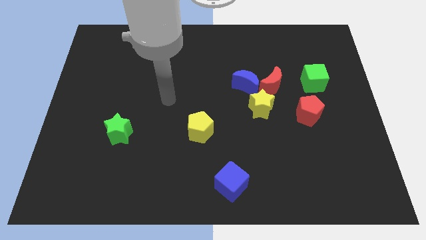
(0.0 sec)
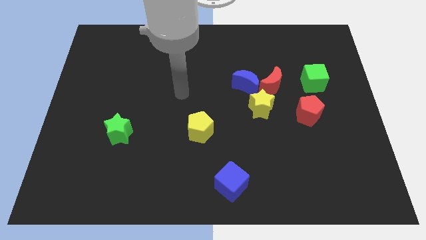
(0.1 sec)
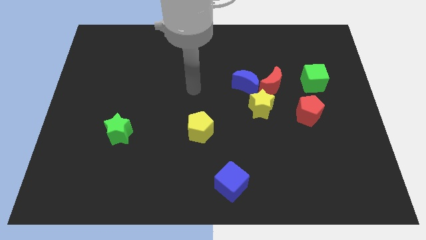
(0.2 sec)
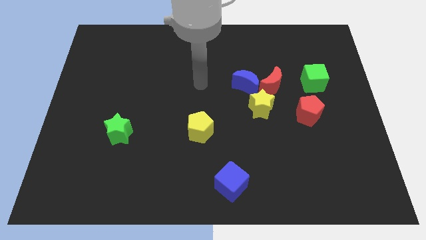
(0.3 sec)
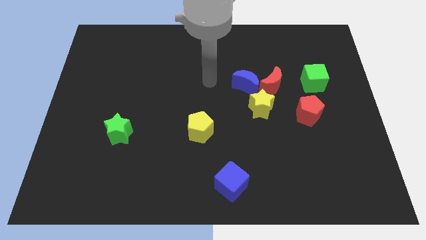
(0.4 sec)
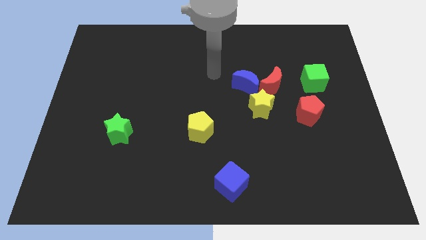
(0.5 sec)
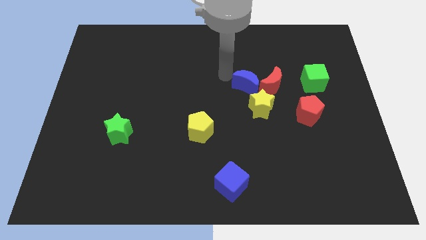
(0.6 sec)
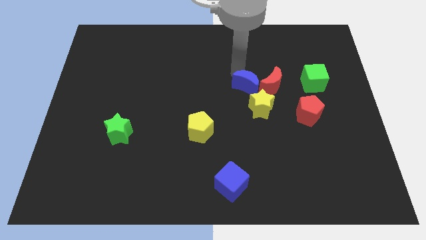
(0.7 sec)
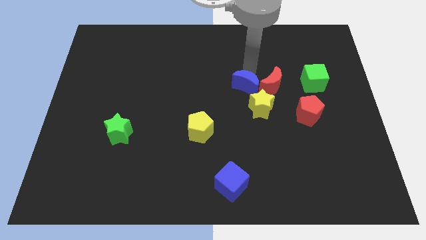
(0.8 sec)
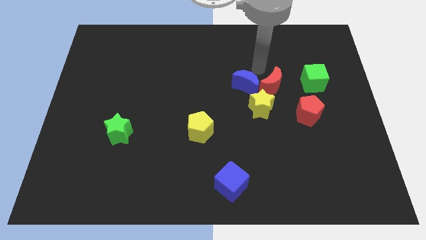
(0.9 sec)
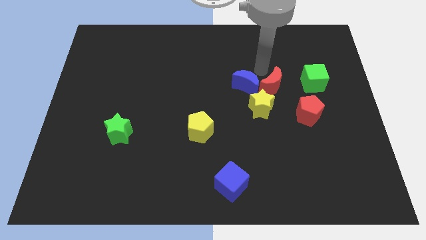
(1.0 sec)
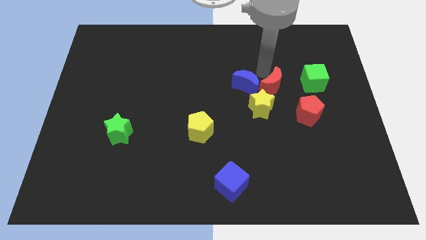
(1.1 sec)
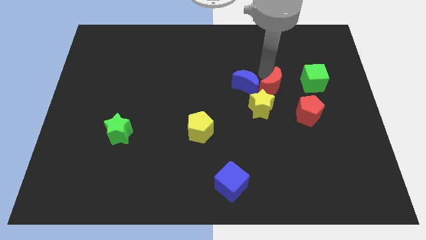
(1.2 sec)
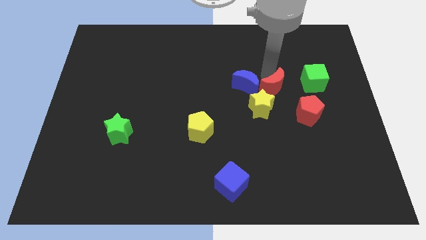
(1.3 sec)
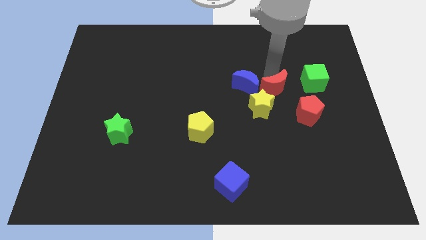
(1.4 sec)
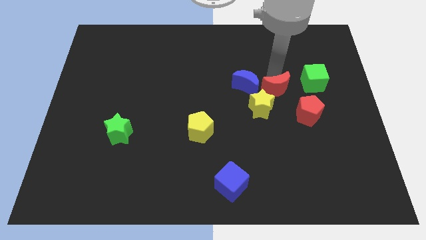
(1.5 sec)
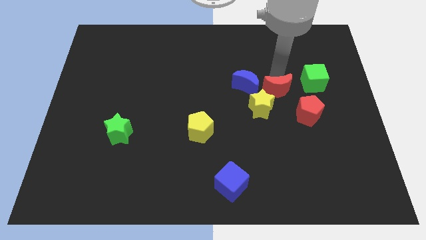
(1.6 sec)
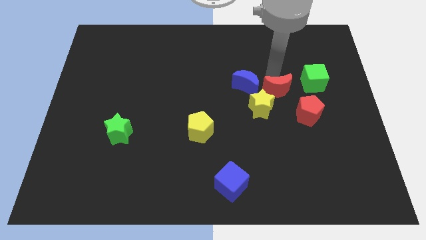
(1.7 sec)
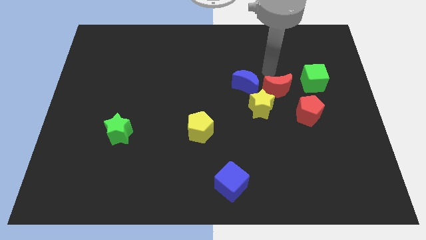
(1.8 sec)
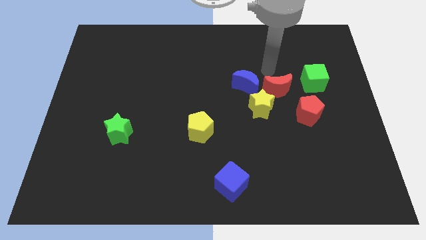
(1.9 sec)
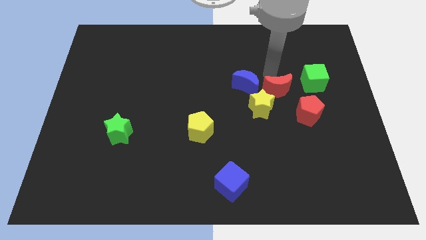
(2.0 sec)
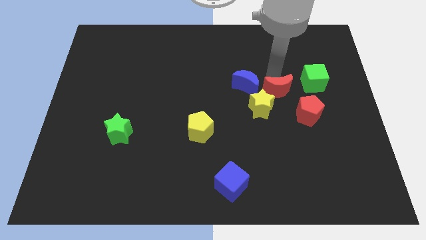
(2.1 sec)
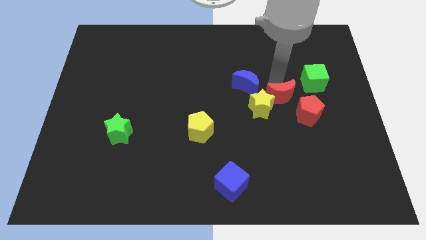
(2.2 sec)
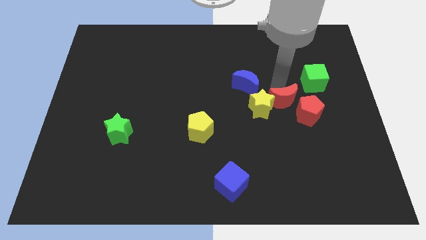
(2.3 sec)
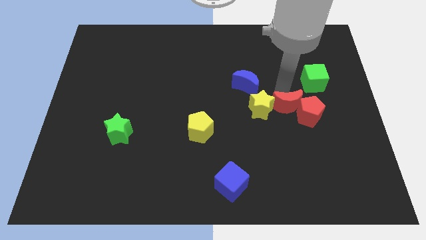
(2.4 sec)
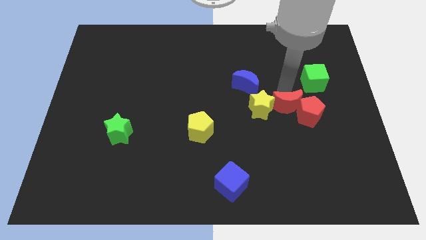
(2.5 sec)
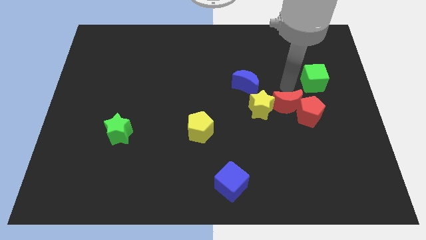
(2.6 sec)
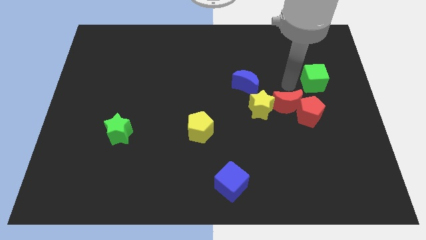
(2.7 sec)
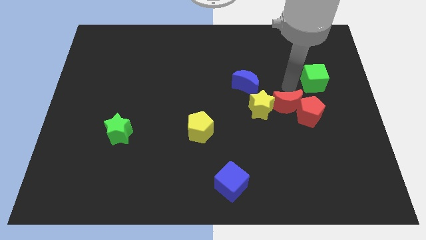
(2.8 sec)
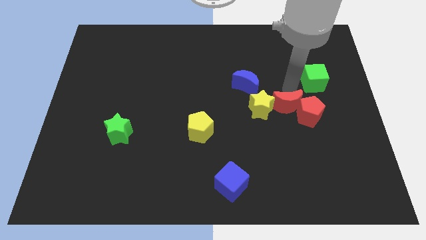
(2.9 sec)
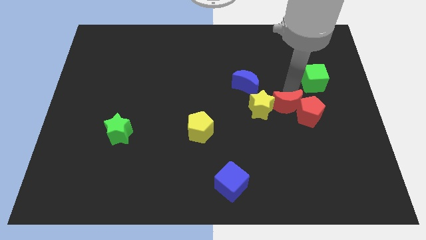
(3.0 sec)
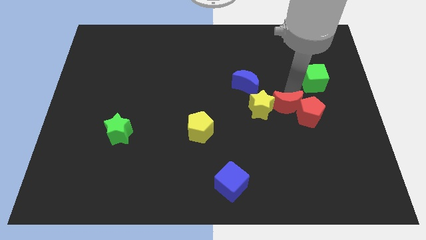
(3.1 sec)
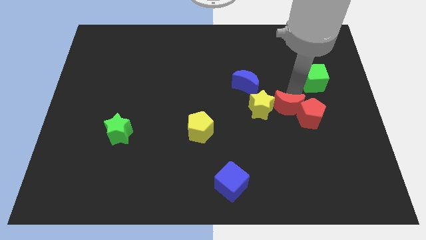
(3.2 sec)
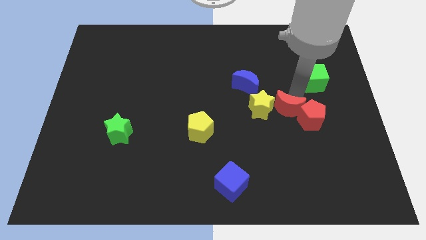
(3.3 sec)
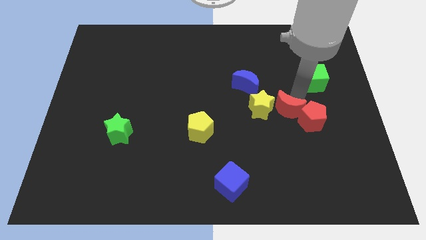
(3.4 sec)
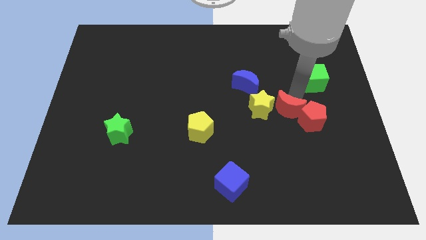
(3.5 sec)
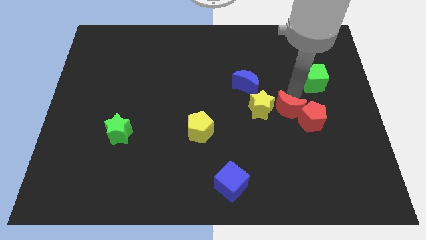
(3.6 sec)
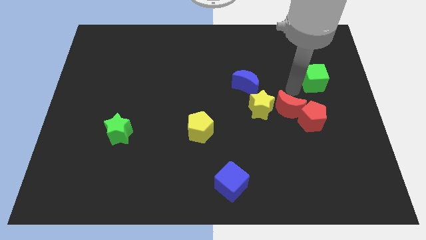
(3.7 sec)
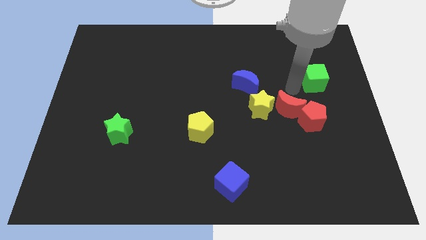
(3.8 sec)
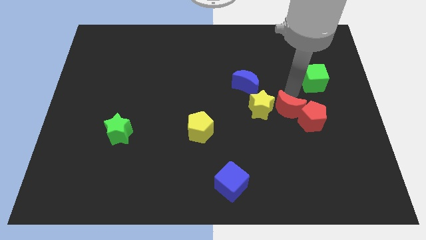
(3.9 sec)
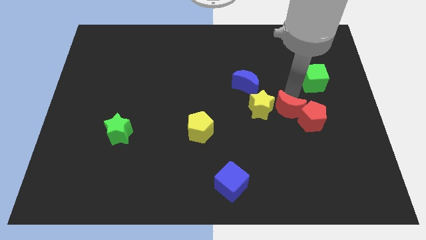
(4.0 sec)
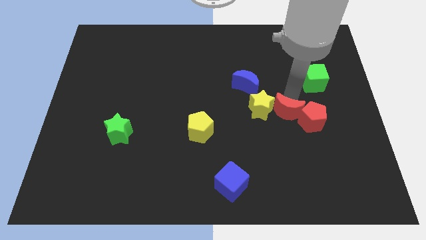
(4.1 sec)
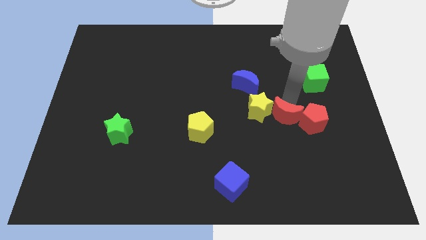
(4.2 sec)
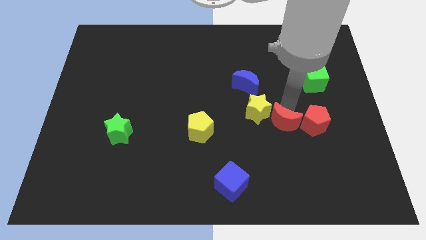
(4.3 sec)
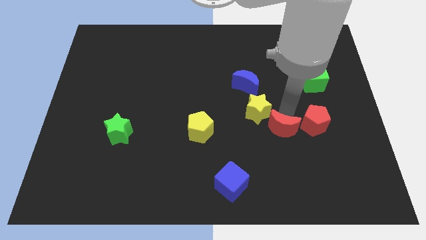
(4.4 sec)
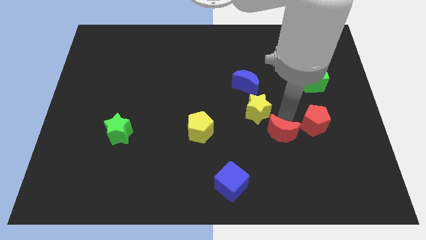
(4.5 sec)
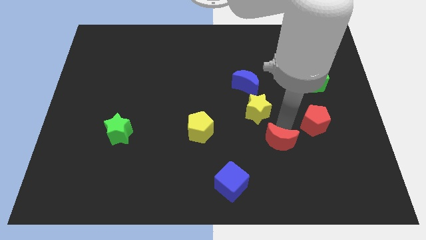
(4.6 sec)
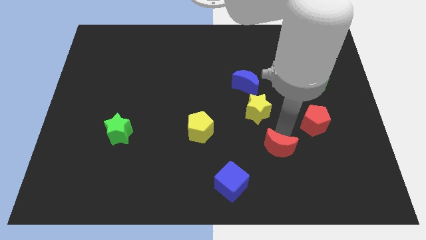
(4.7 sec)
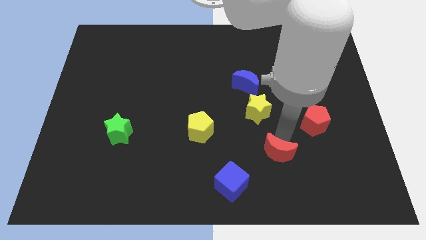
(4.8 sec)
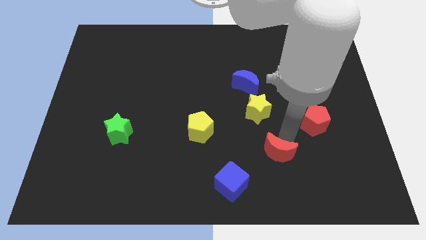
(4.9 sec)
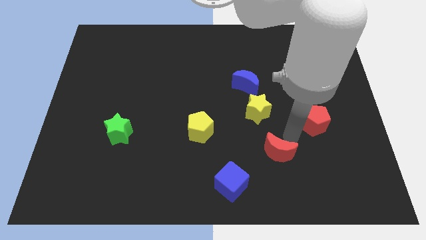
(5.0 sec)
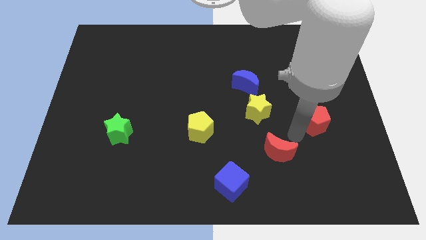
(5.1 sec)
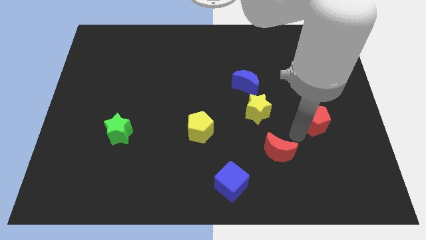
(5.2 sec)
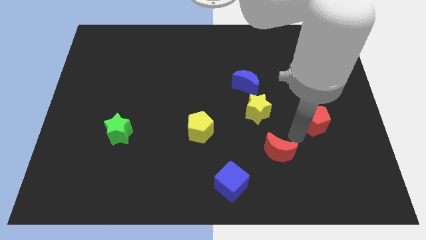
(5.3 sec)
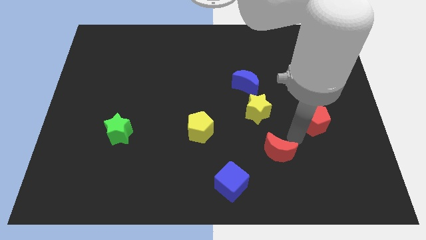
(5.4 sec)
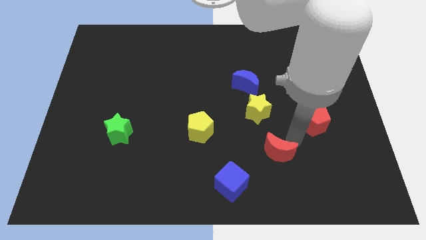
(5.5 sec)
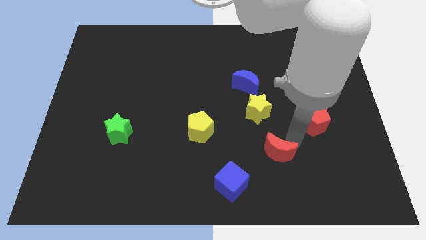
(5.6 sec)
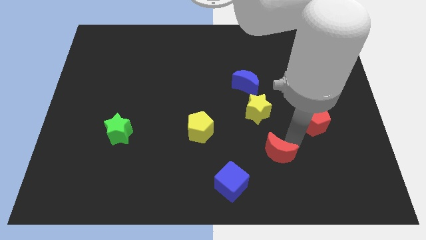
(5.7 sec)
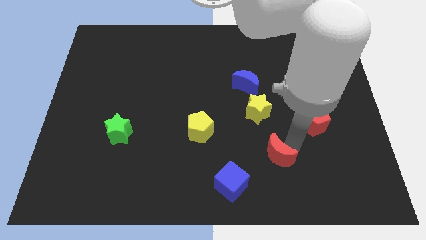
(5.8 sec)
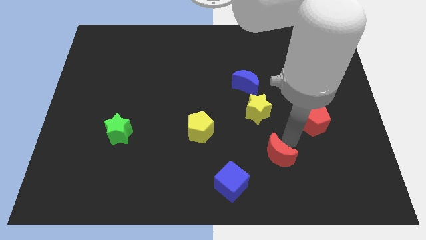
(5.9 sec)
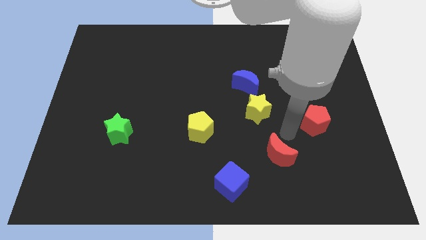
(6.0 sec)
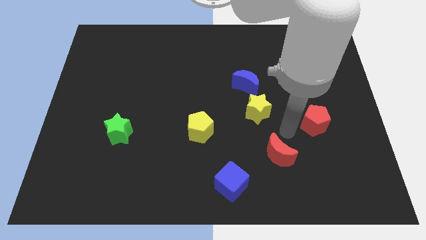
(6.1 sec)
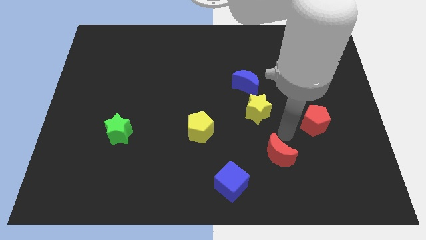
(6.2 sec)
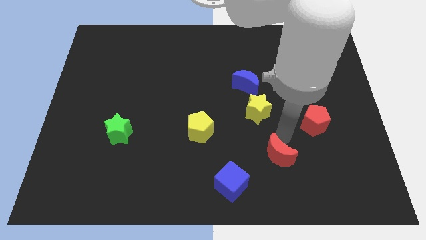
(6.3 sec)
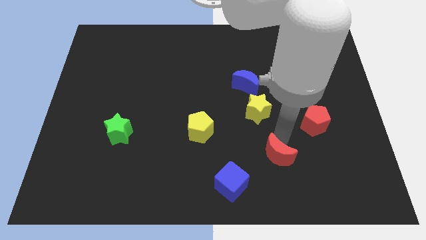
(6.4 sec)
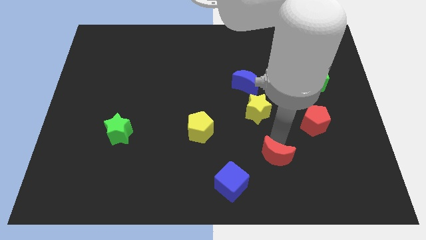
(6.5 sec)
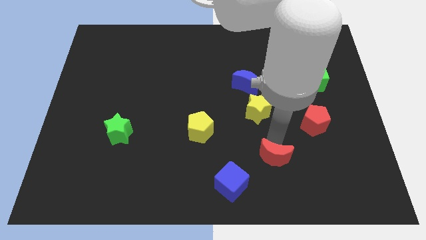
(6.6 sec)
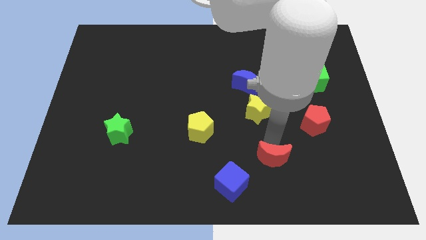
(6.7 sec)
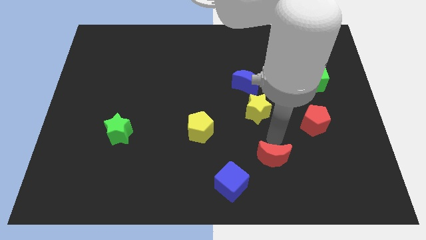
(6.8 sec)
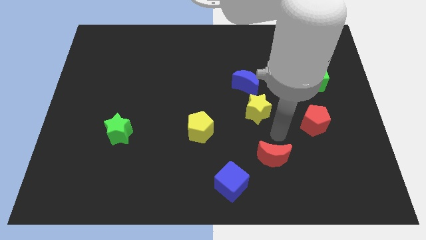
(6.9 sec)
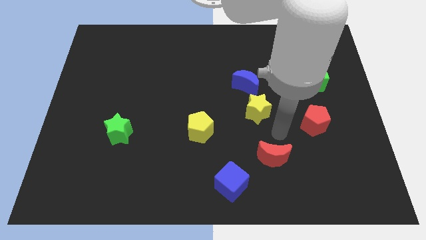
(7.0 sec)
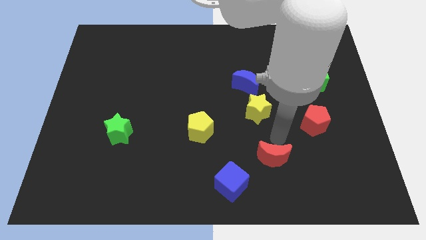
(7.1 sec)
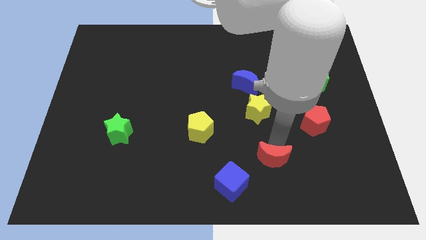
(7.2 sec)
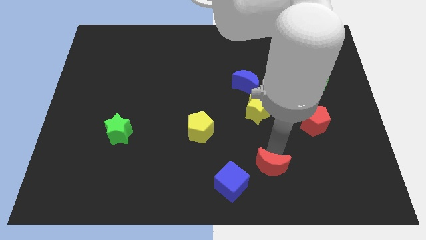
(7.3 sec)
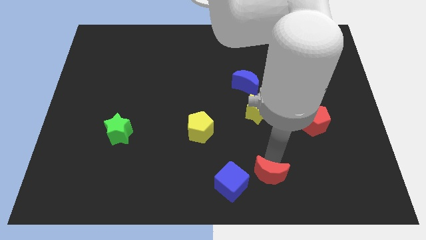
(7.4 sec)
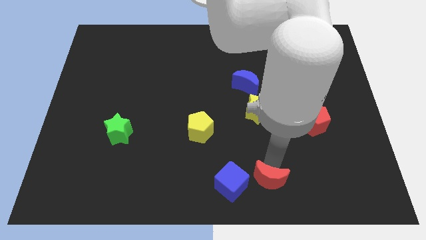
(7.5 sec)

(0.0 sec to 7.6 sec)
push the red moon to the bottom
